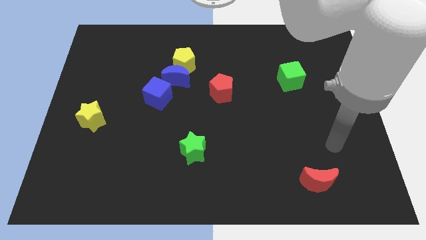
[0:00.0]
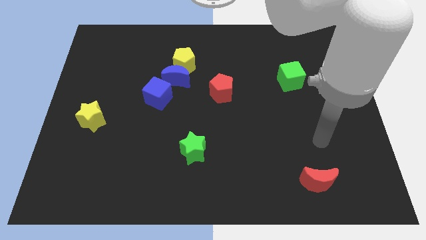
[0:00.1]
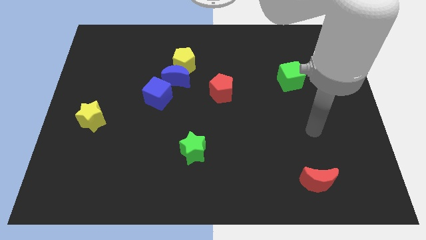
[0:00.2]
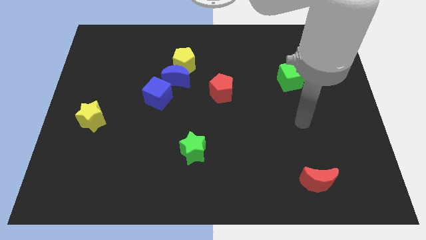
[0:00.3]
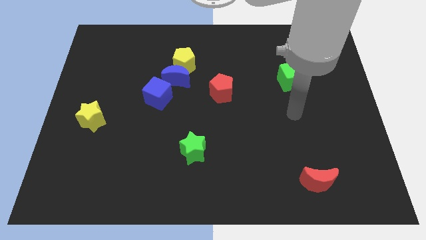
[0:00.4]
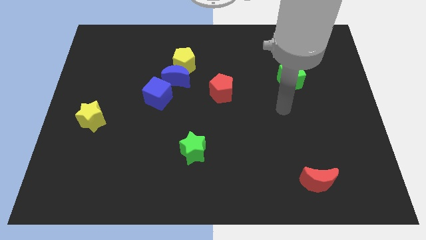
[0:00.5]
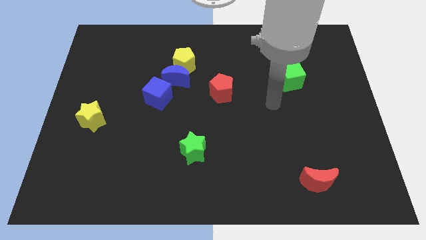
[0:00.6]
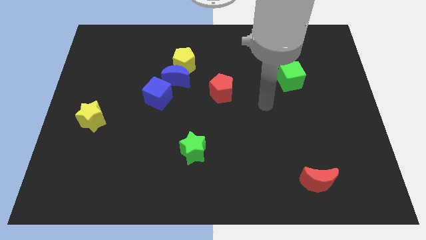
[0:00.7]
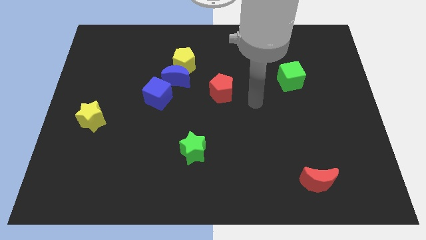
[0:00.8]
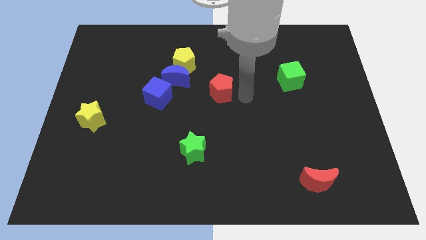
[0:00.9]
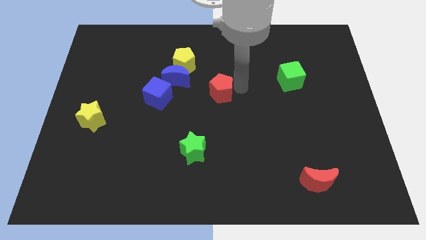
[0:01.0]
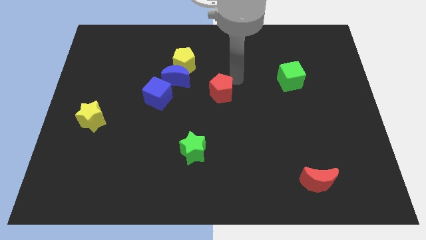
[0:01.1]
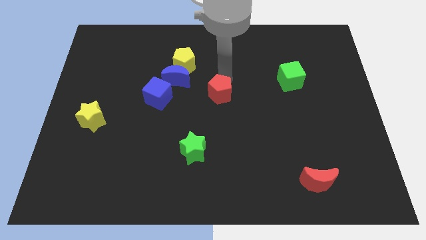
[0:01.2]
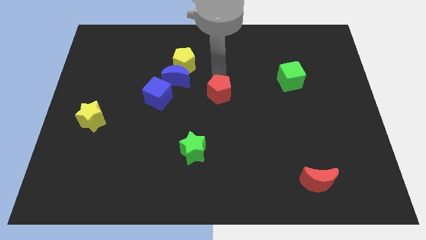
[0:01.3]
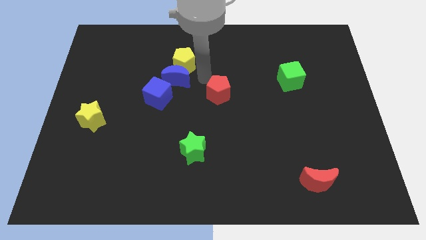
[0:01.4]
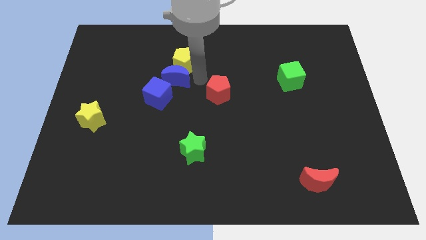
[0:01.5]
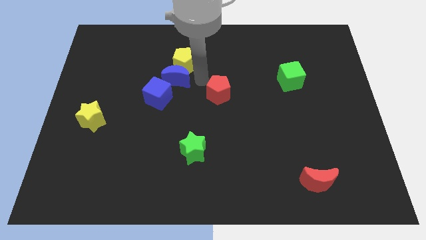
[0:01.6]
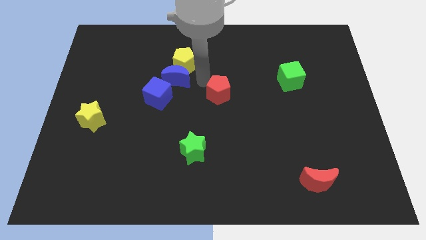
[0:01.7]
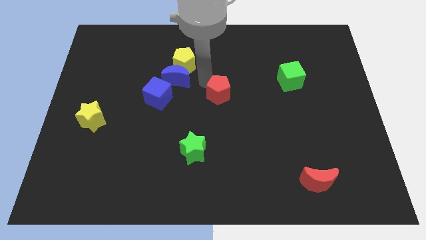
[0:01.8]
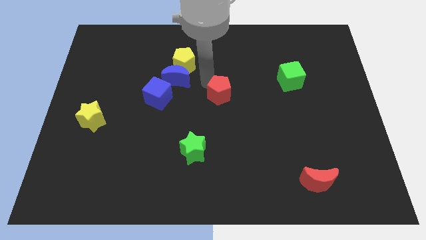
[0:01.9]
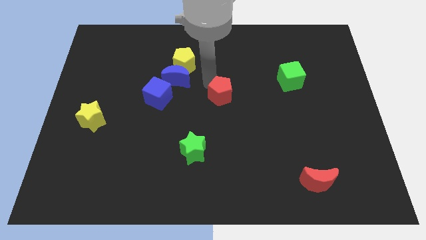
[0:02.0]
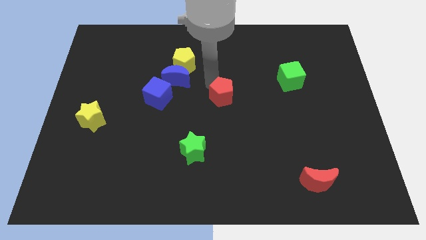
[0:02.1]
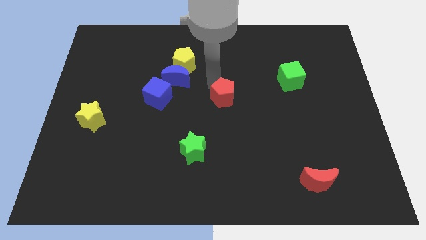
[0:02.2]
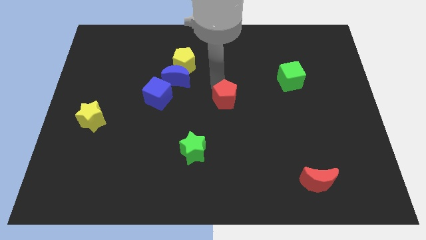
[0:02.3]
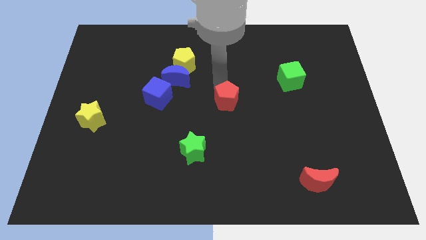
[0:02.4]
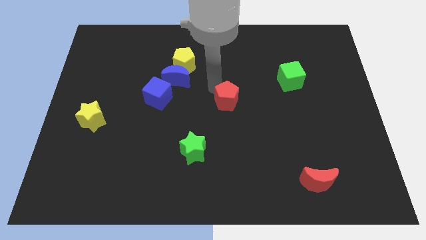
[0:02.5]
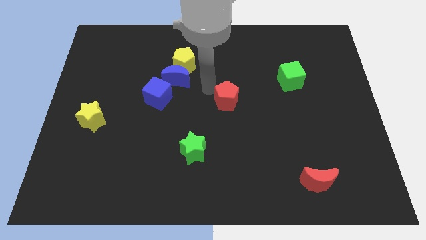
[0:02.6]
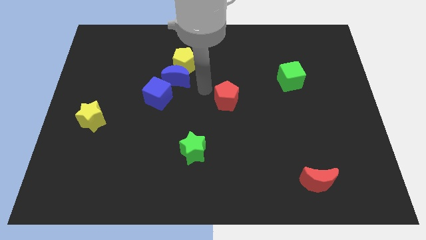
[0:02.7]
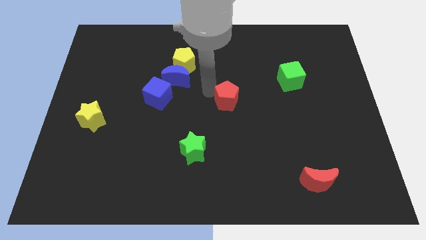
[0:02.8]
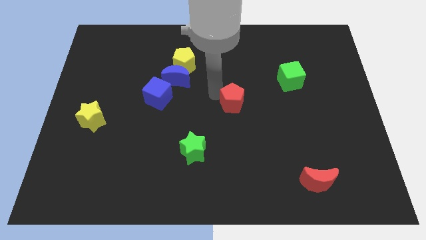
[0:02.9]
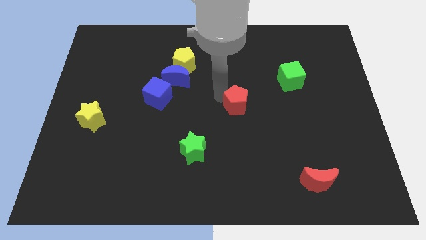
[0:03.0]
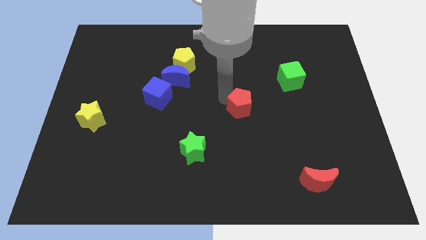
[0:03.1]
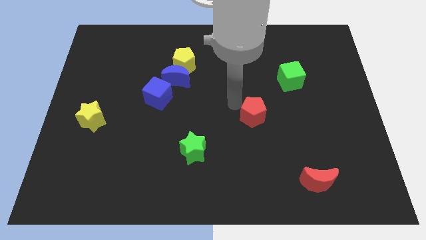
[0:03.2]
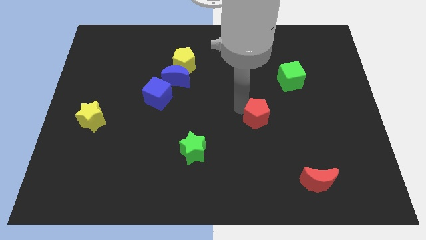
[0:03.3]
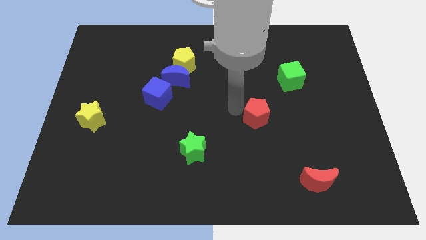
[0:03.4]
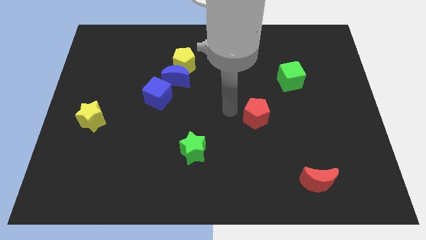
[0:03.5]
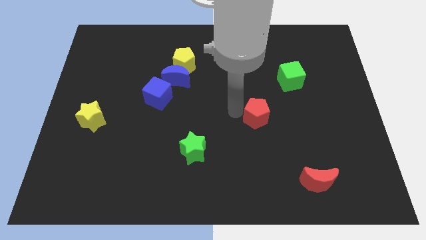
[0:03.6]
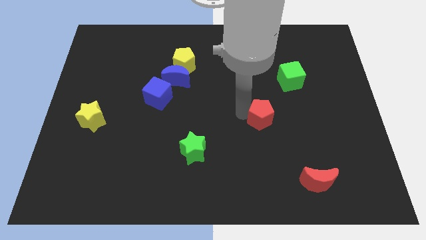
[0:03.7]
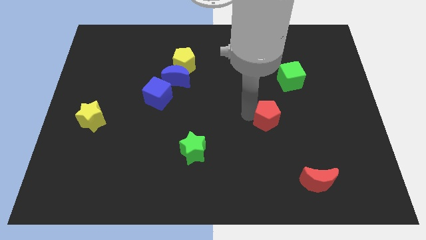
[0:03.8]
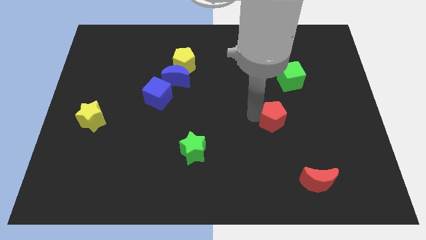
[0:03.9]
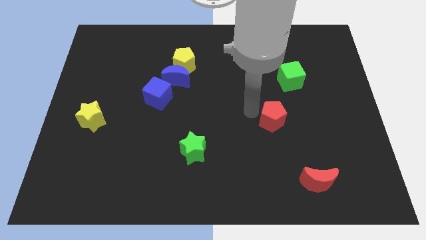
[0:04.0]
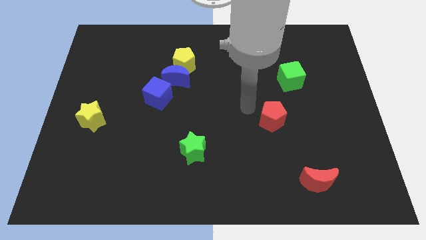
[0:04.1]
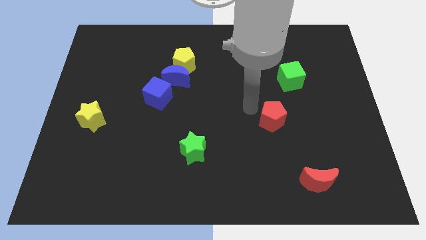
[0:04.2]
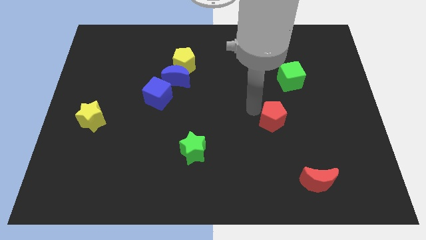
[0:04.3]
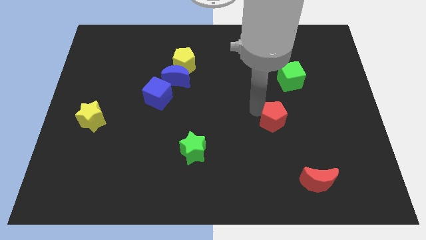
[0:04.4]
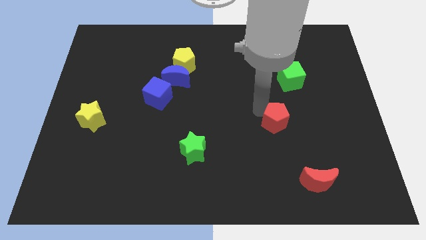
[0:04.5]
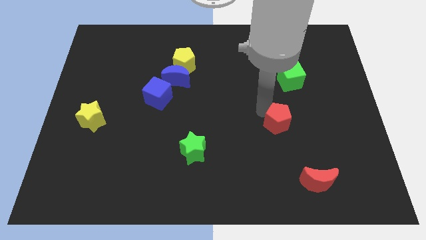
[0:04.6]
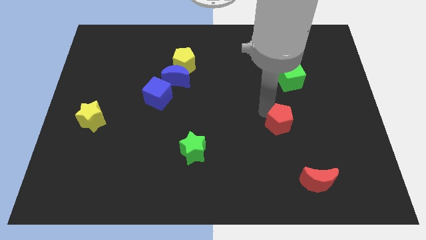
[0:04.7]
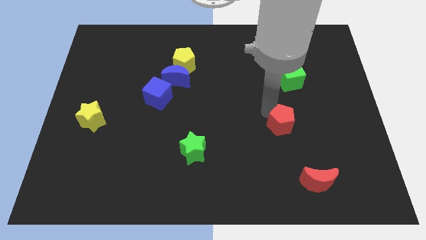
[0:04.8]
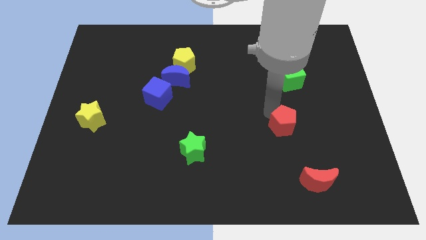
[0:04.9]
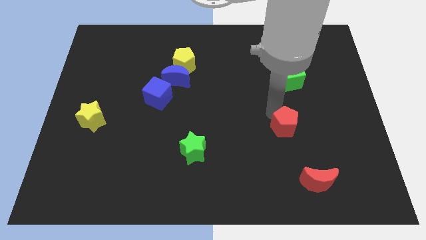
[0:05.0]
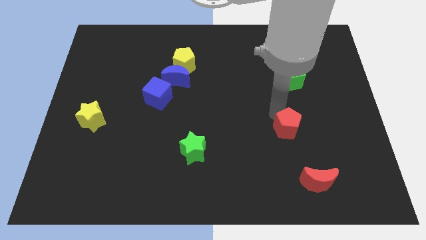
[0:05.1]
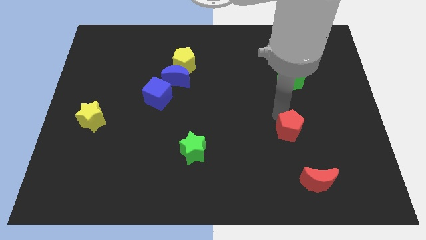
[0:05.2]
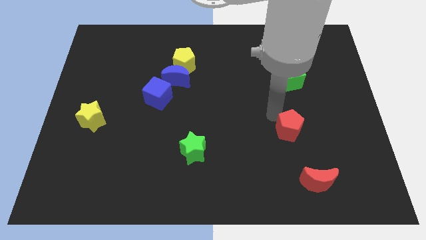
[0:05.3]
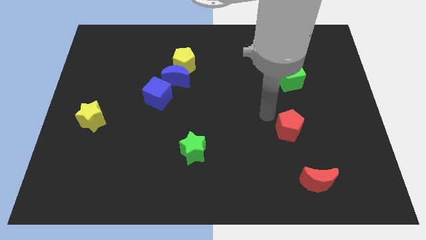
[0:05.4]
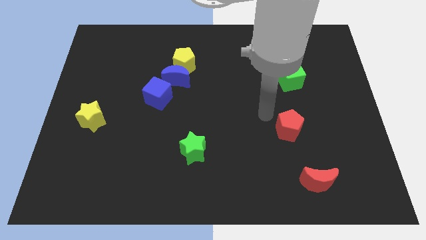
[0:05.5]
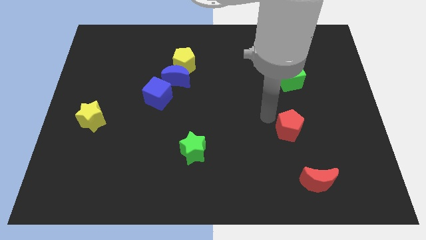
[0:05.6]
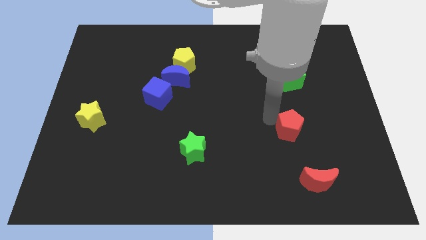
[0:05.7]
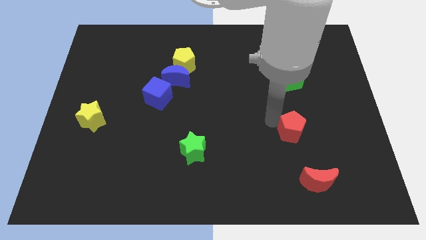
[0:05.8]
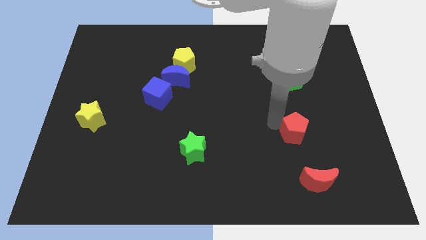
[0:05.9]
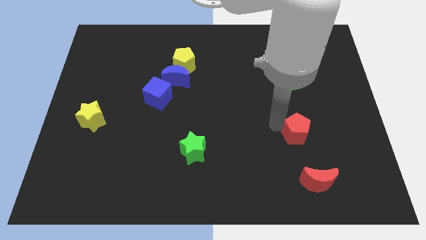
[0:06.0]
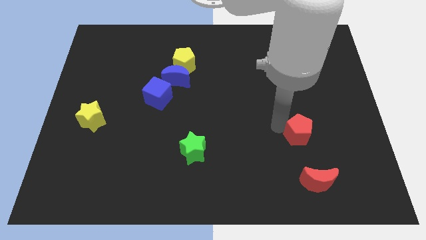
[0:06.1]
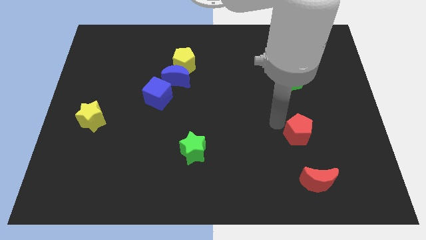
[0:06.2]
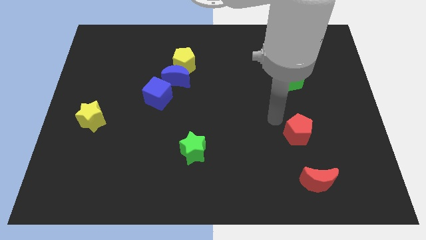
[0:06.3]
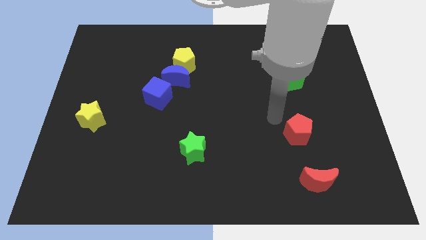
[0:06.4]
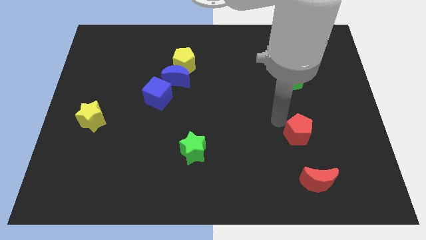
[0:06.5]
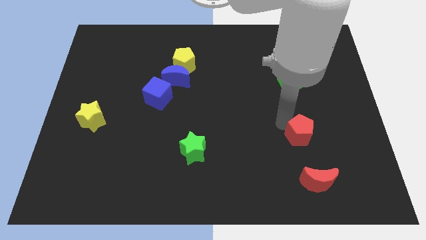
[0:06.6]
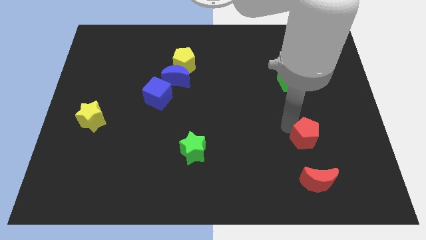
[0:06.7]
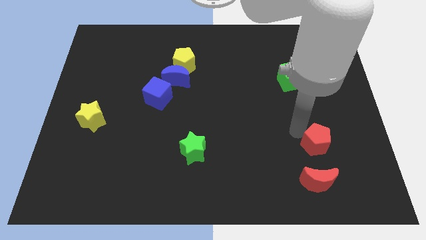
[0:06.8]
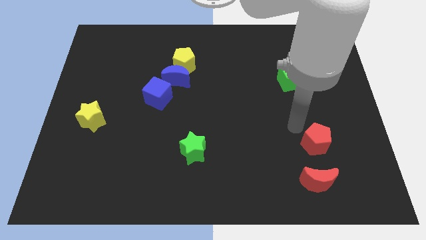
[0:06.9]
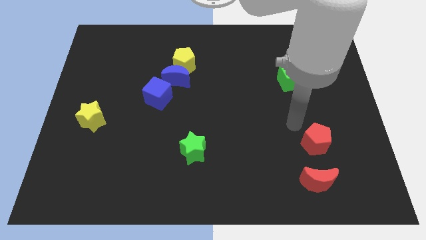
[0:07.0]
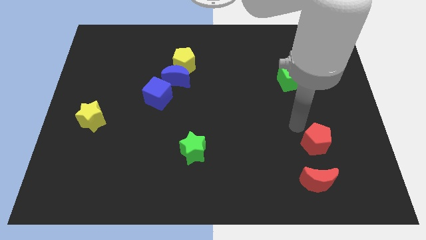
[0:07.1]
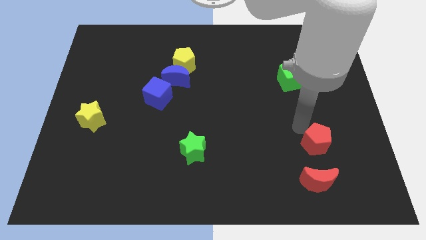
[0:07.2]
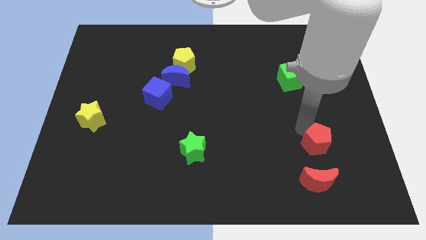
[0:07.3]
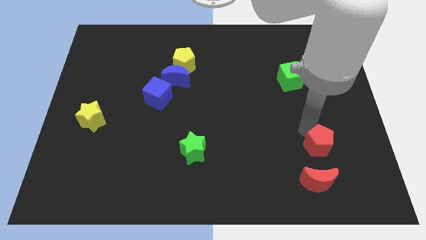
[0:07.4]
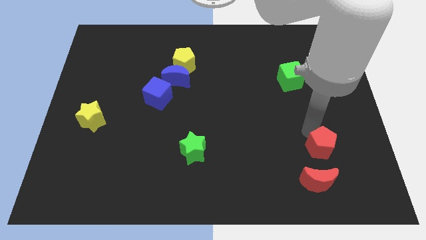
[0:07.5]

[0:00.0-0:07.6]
put the red pentagon to the top right side of the red moon

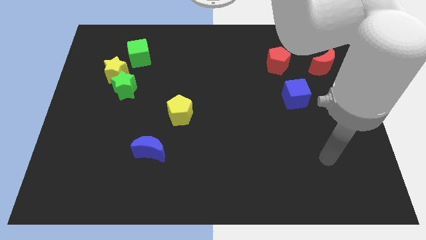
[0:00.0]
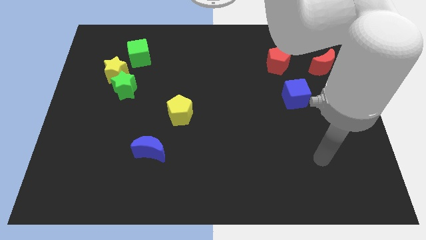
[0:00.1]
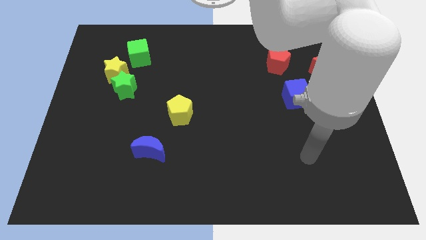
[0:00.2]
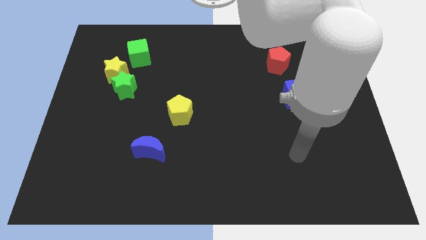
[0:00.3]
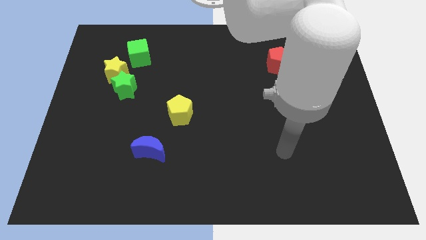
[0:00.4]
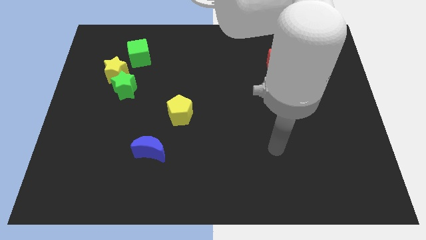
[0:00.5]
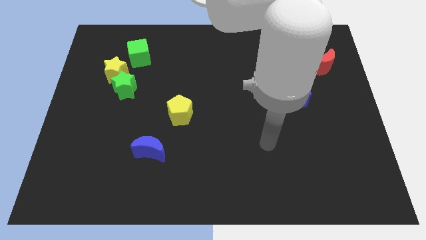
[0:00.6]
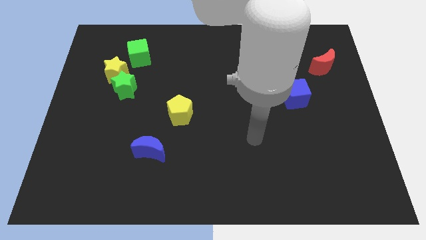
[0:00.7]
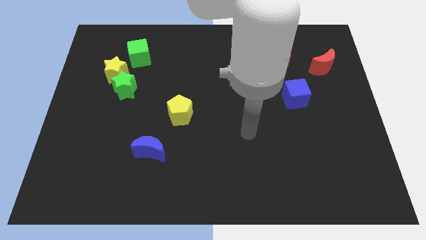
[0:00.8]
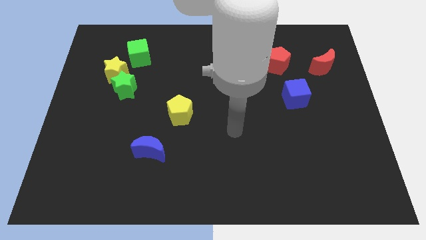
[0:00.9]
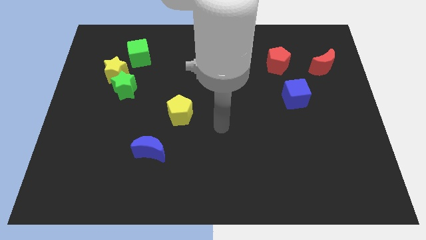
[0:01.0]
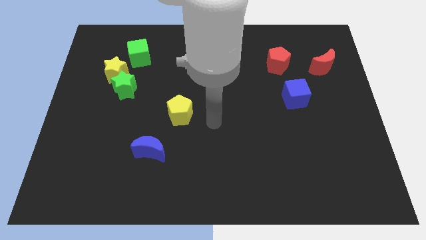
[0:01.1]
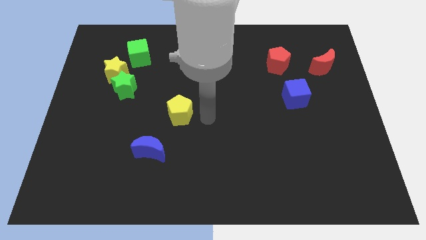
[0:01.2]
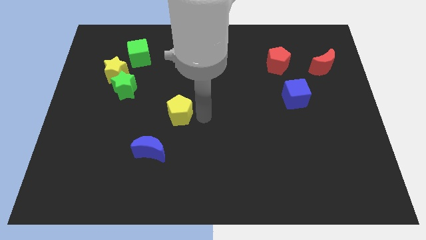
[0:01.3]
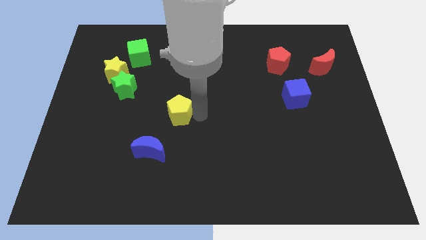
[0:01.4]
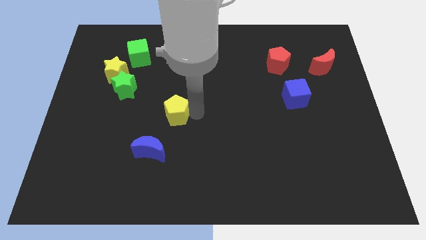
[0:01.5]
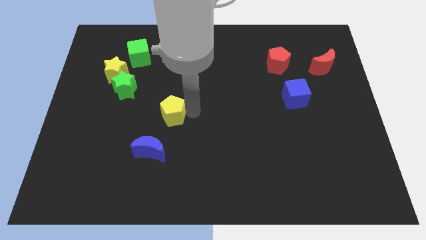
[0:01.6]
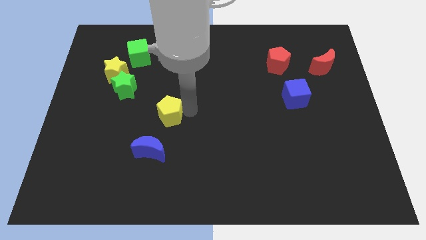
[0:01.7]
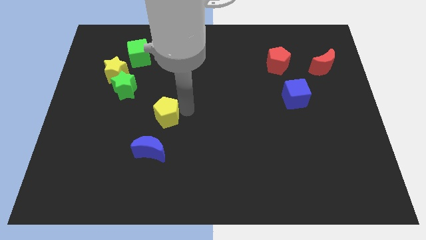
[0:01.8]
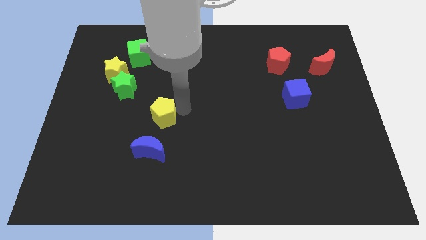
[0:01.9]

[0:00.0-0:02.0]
move the yellow pentagon to the bottom right side of the green star
